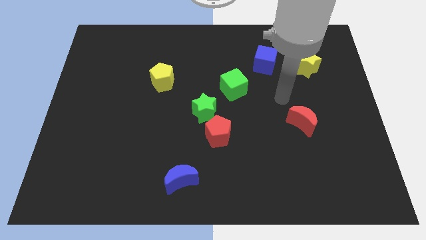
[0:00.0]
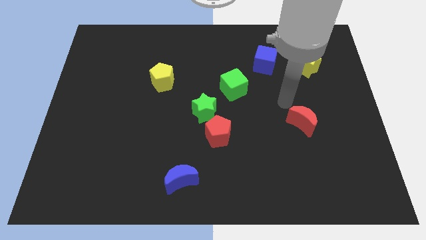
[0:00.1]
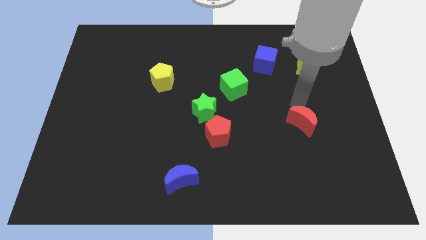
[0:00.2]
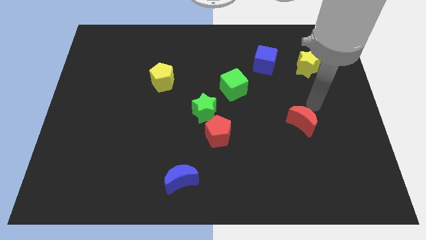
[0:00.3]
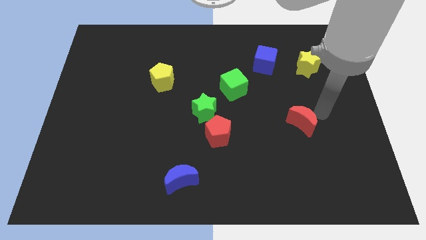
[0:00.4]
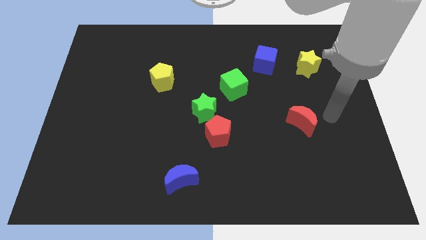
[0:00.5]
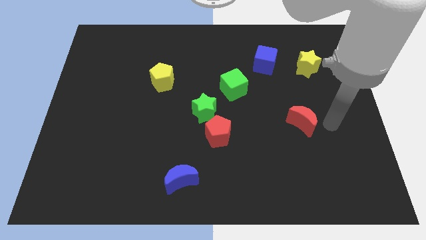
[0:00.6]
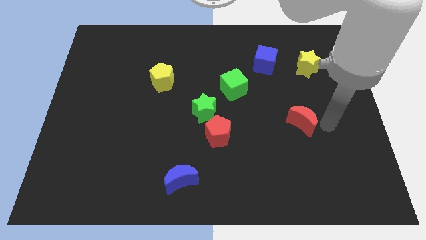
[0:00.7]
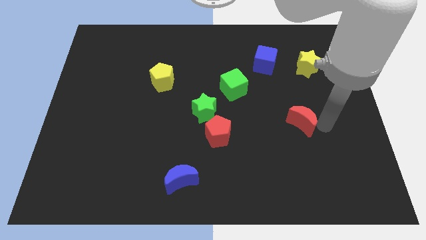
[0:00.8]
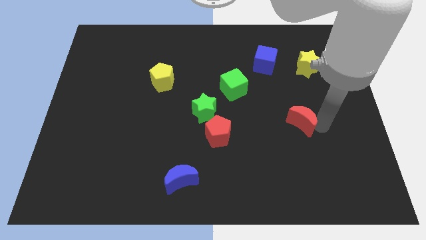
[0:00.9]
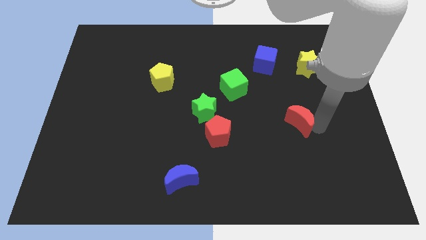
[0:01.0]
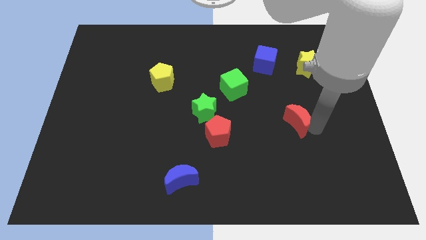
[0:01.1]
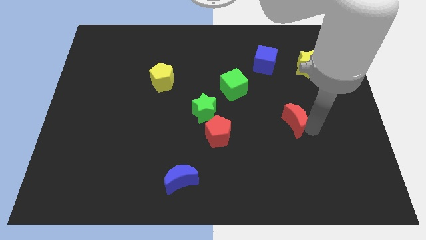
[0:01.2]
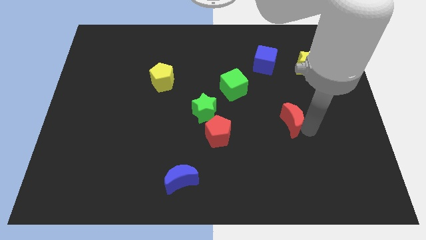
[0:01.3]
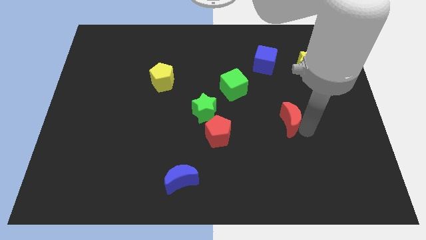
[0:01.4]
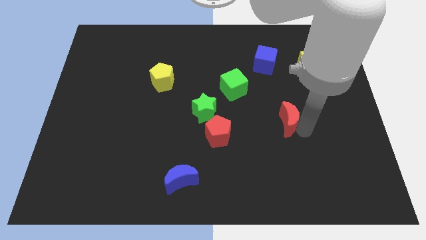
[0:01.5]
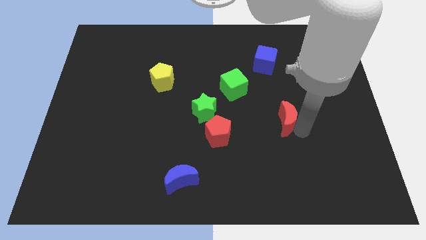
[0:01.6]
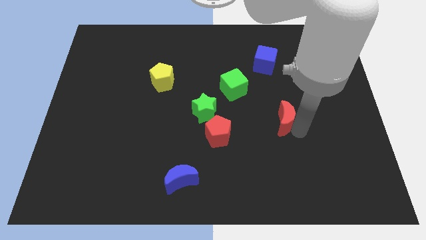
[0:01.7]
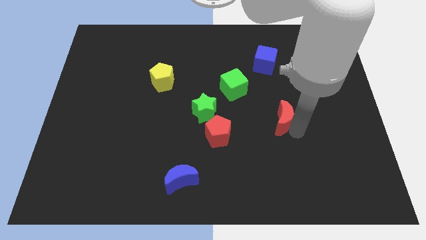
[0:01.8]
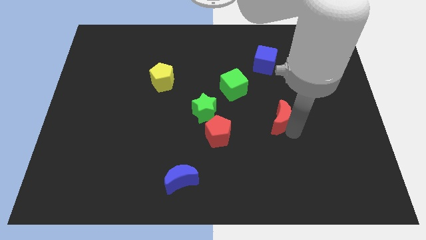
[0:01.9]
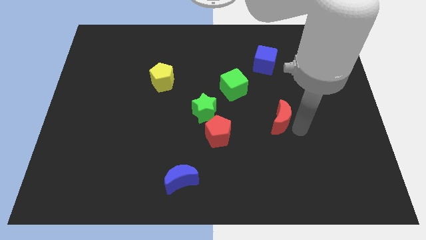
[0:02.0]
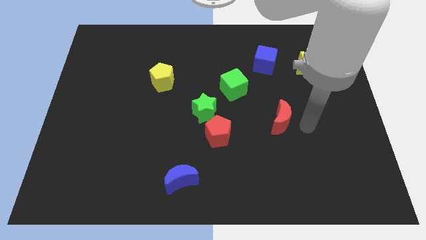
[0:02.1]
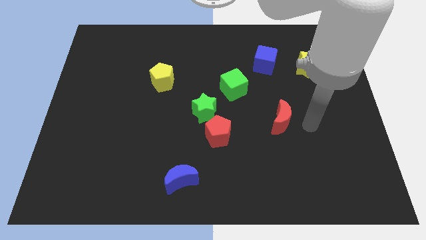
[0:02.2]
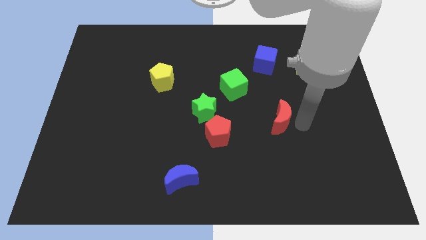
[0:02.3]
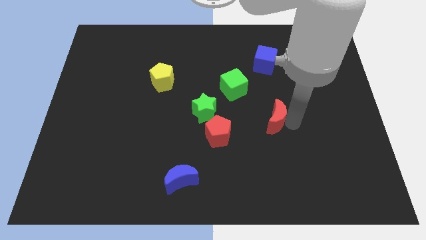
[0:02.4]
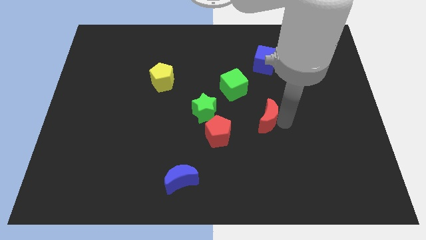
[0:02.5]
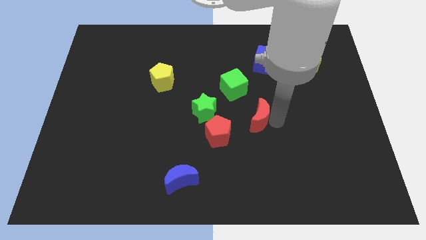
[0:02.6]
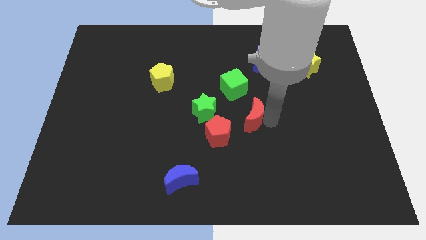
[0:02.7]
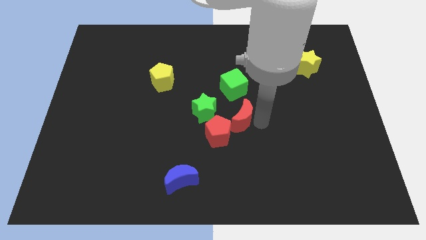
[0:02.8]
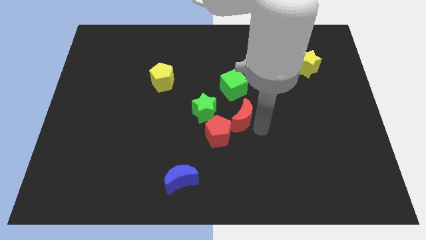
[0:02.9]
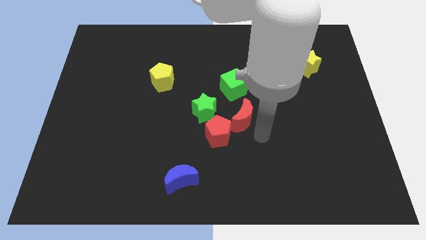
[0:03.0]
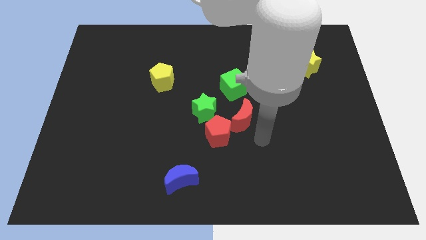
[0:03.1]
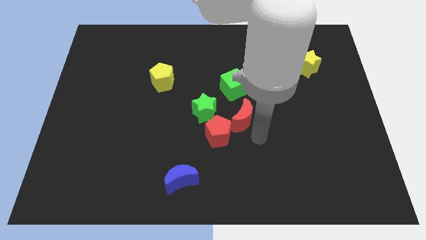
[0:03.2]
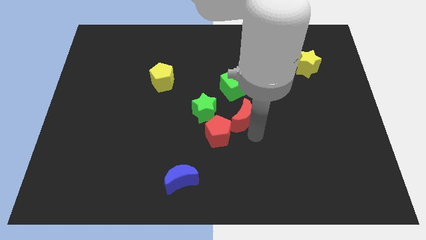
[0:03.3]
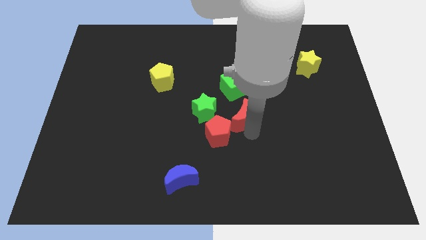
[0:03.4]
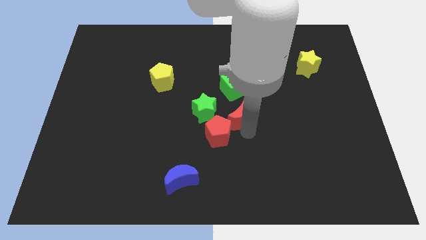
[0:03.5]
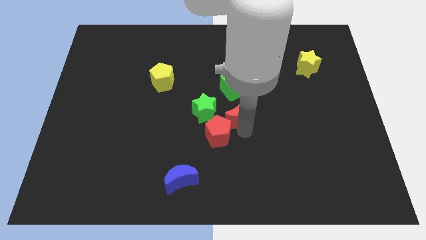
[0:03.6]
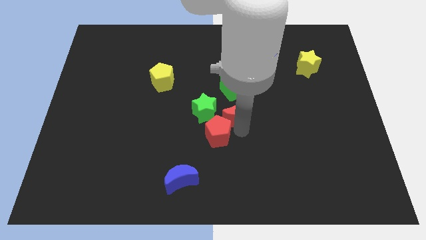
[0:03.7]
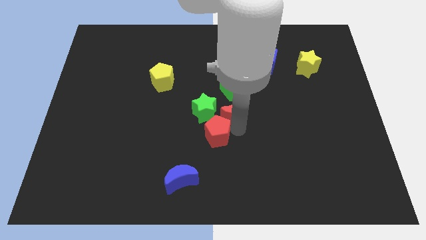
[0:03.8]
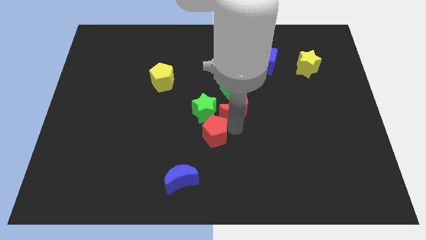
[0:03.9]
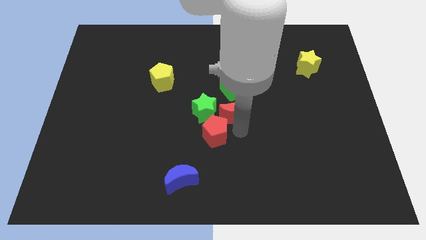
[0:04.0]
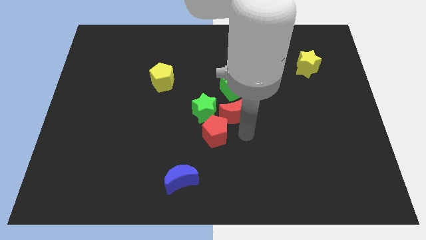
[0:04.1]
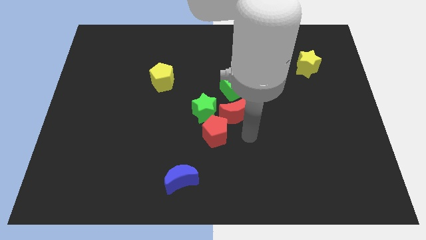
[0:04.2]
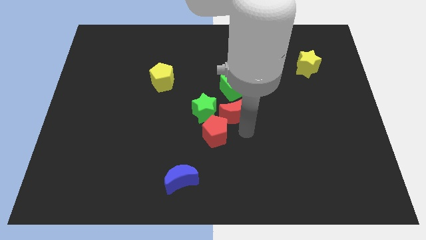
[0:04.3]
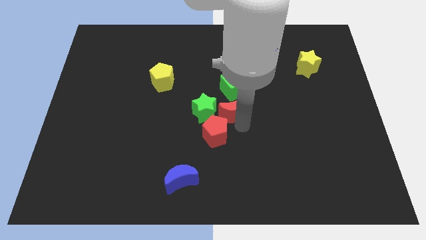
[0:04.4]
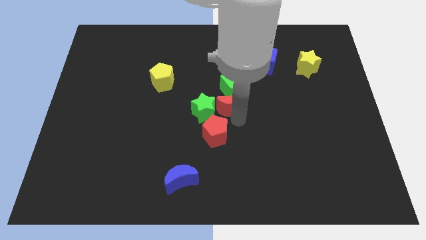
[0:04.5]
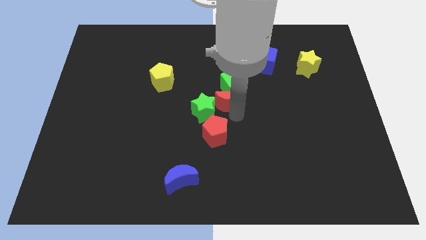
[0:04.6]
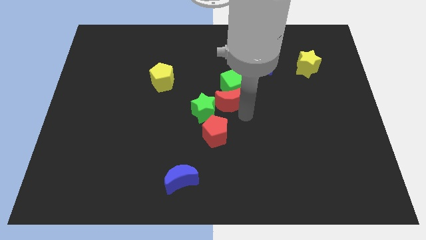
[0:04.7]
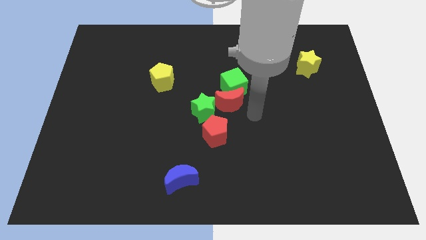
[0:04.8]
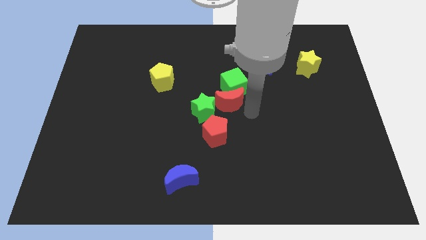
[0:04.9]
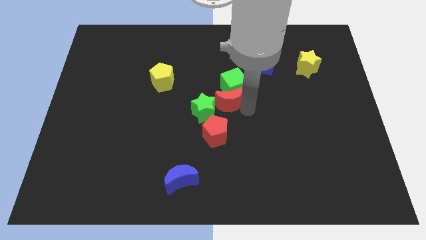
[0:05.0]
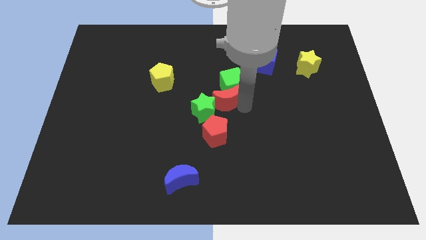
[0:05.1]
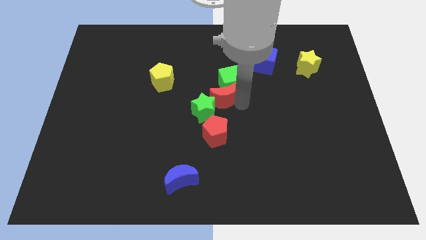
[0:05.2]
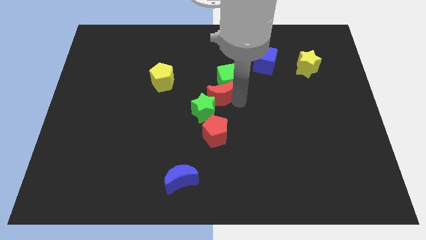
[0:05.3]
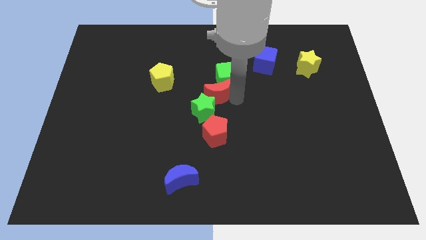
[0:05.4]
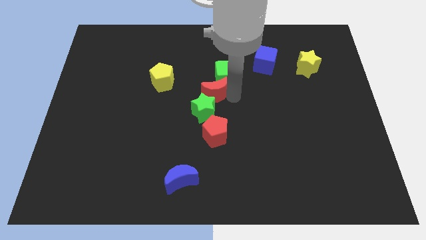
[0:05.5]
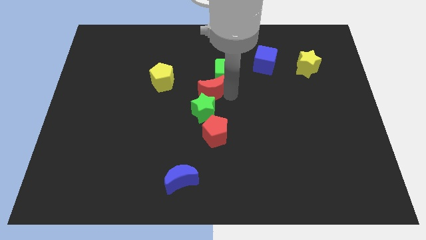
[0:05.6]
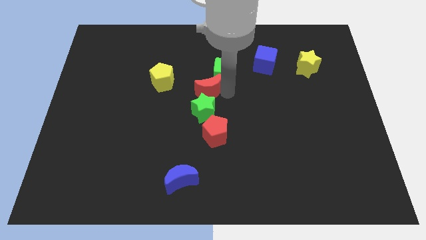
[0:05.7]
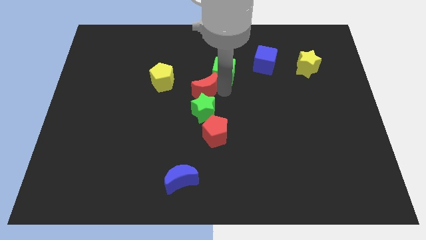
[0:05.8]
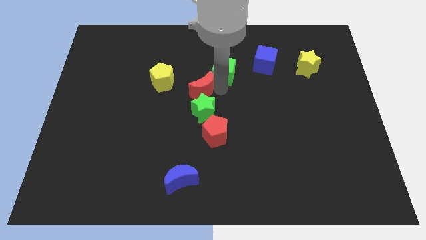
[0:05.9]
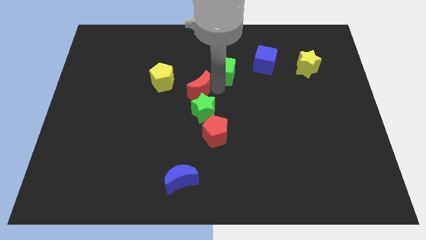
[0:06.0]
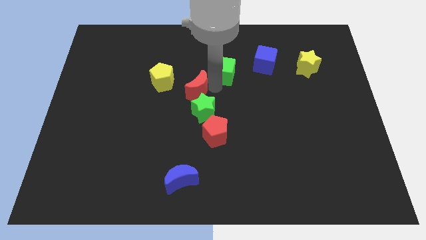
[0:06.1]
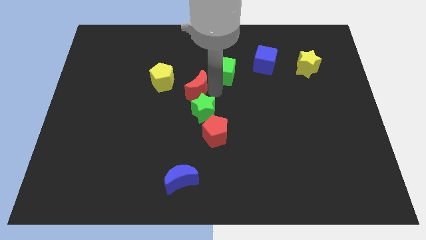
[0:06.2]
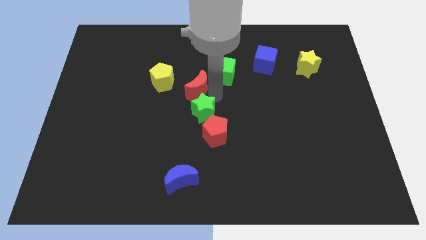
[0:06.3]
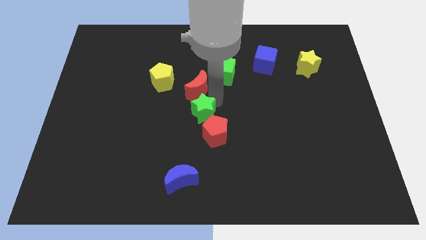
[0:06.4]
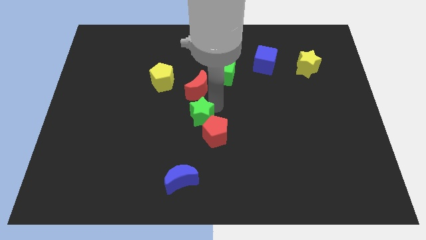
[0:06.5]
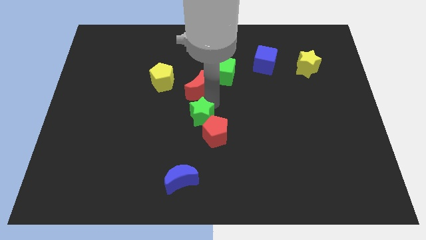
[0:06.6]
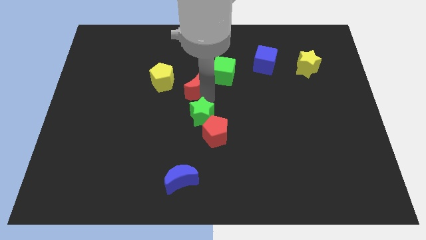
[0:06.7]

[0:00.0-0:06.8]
move the red moon just left of the green cube
